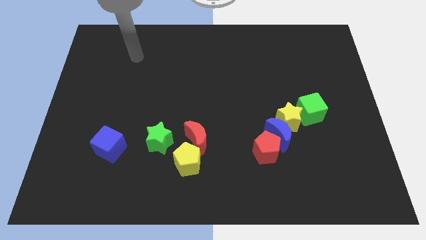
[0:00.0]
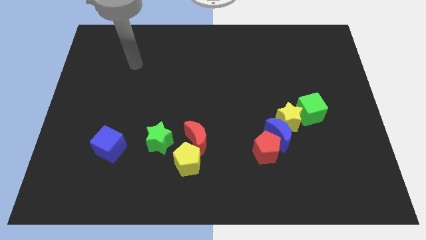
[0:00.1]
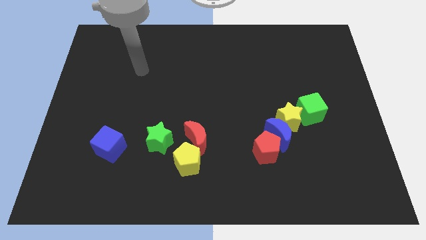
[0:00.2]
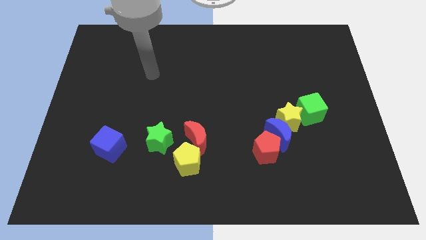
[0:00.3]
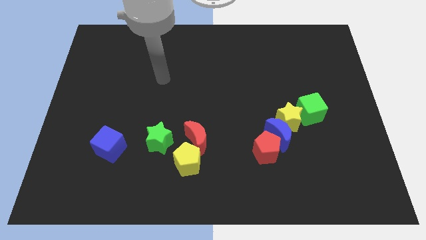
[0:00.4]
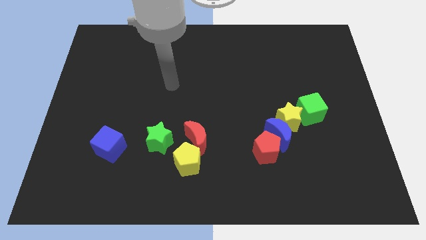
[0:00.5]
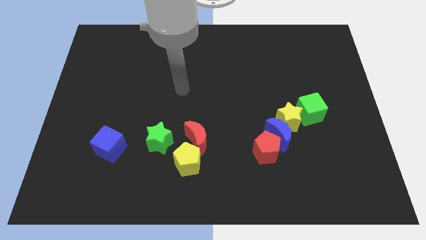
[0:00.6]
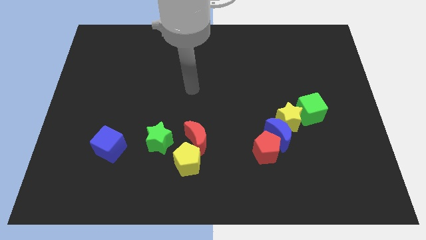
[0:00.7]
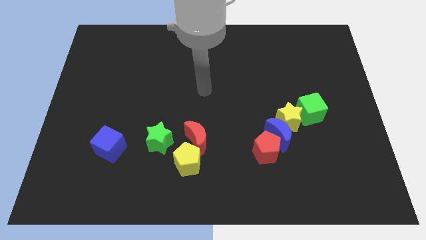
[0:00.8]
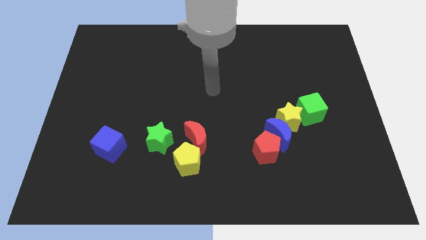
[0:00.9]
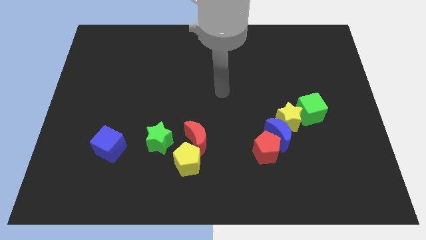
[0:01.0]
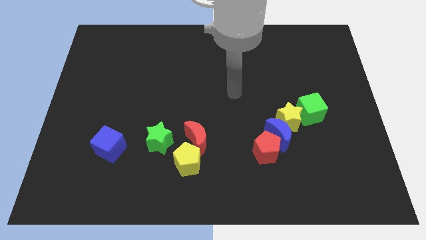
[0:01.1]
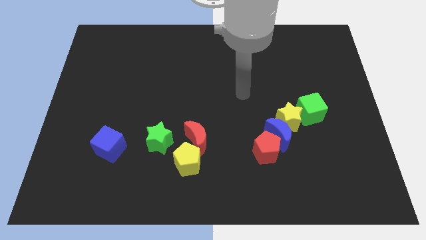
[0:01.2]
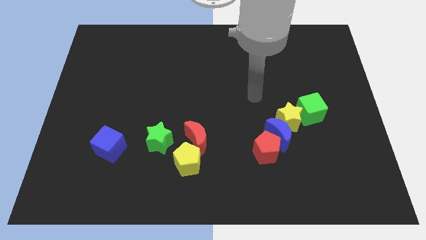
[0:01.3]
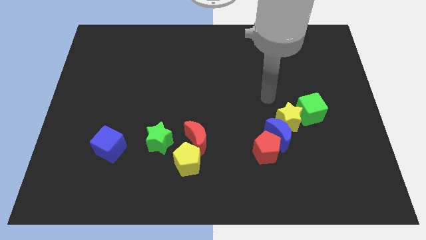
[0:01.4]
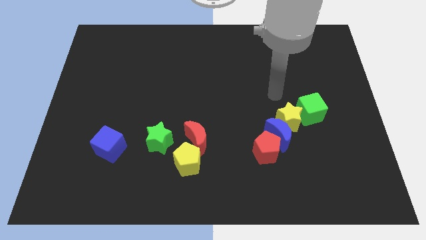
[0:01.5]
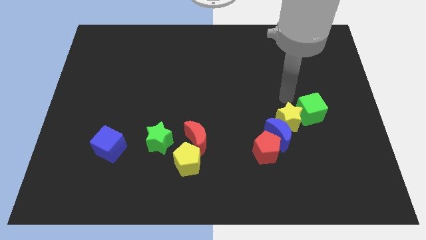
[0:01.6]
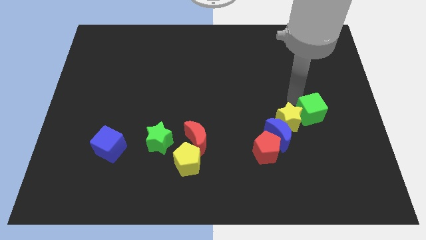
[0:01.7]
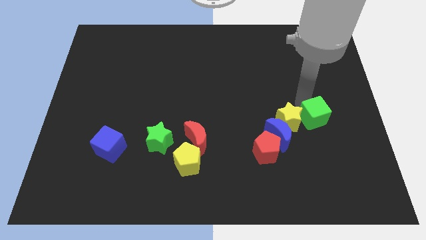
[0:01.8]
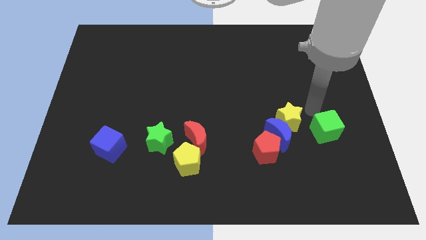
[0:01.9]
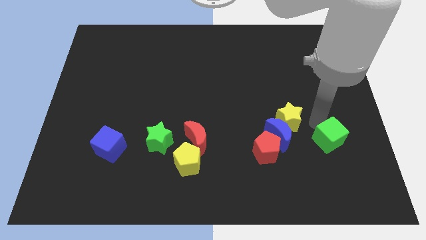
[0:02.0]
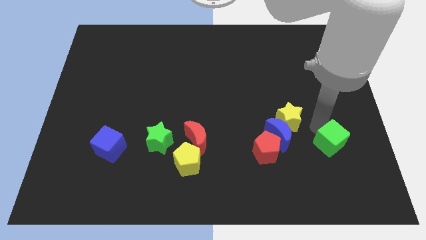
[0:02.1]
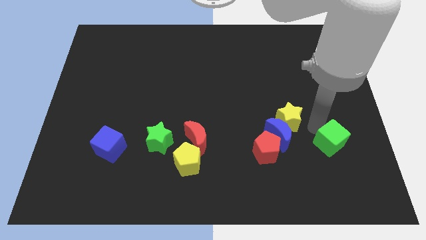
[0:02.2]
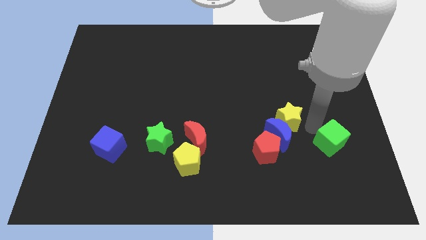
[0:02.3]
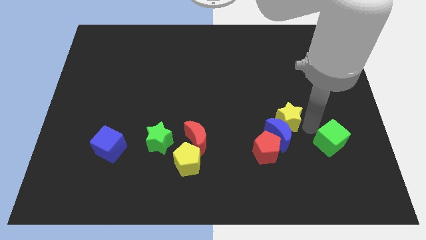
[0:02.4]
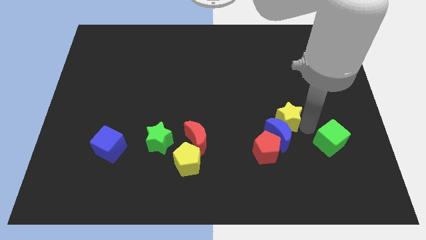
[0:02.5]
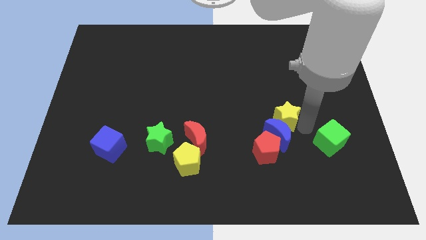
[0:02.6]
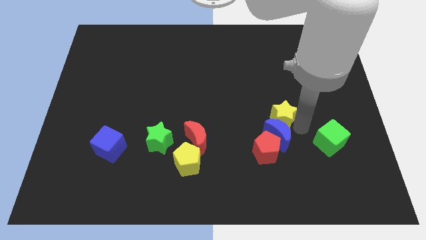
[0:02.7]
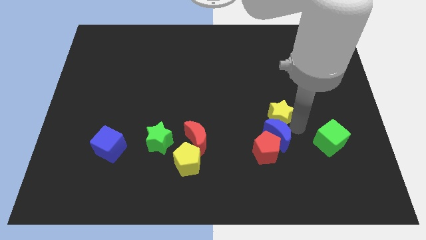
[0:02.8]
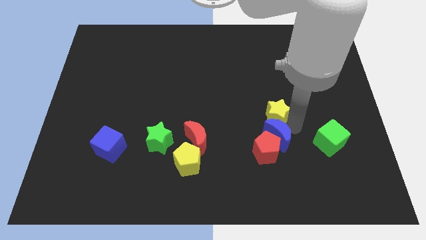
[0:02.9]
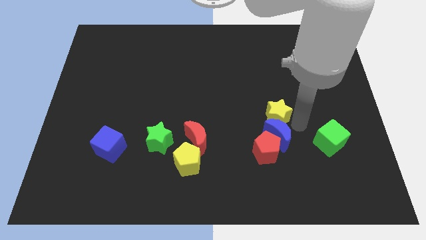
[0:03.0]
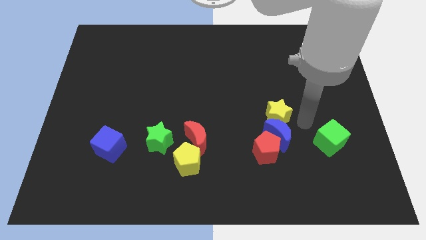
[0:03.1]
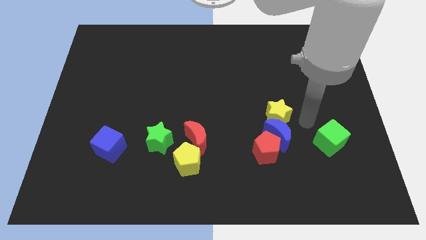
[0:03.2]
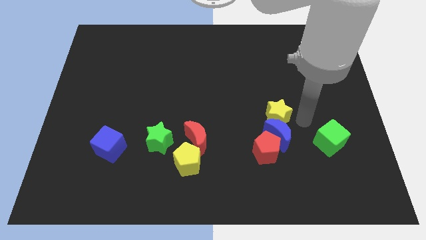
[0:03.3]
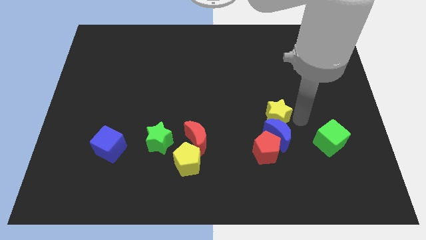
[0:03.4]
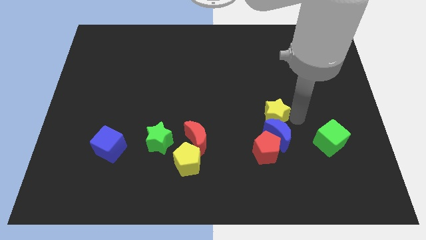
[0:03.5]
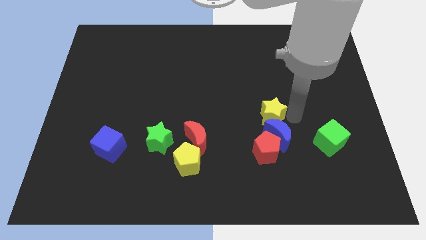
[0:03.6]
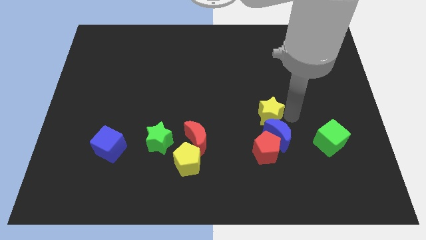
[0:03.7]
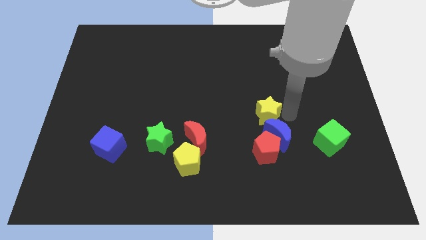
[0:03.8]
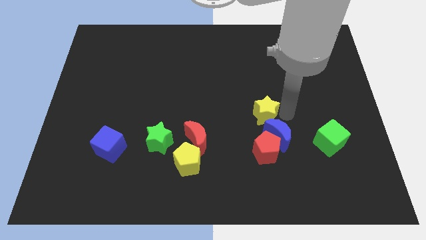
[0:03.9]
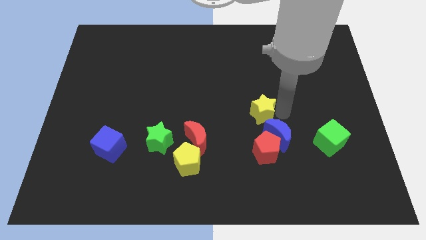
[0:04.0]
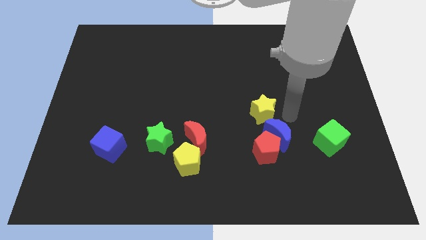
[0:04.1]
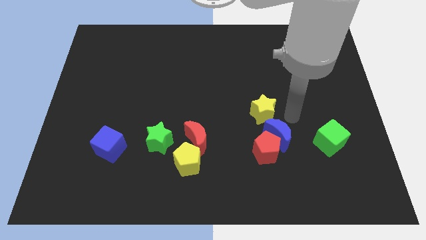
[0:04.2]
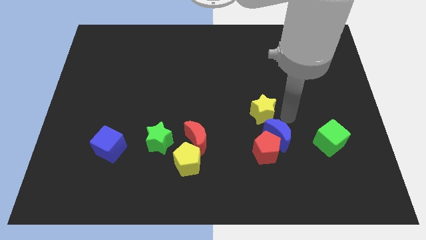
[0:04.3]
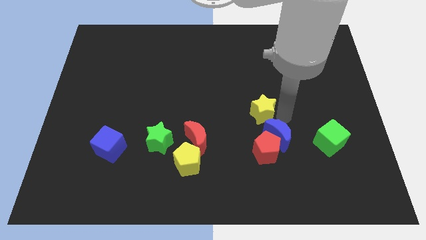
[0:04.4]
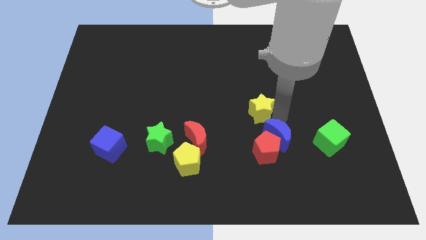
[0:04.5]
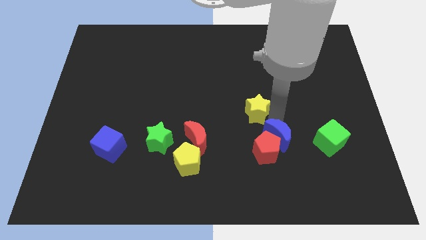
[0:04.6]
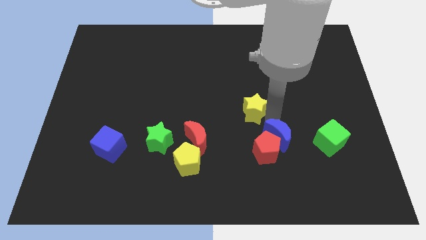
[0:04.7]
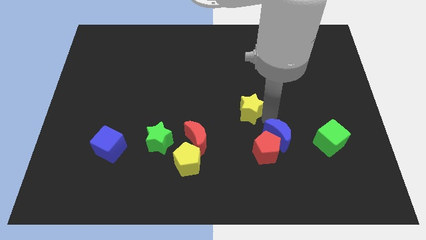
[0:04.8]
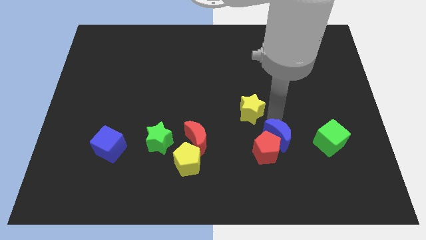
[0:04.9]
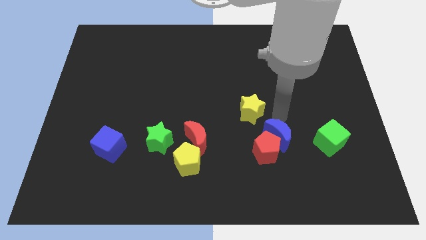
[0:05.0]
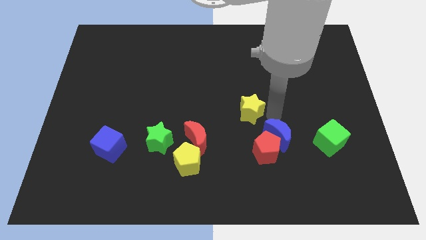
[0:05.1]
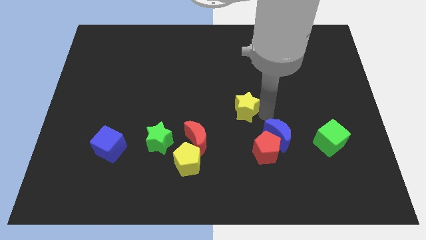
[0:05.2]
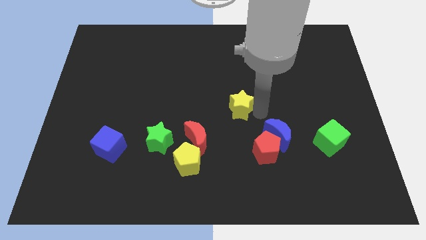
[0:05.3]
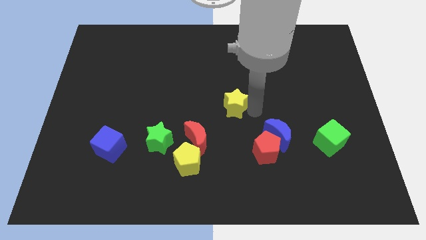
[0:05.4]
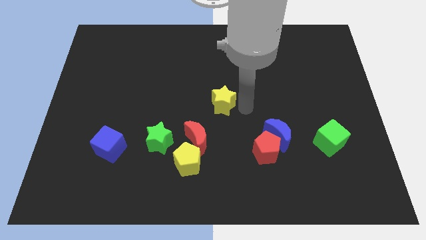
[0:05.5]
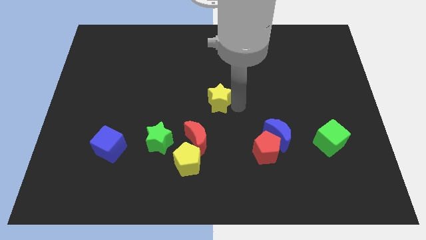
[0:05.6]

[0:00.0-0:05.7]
slide the yellow star to the top side of the red moon

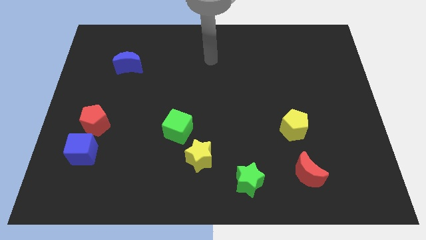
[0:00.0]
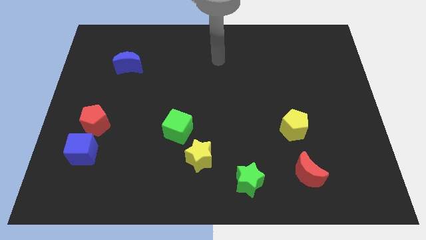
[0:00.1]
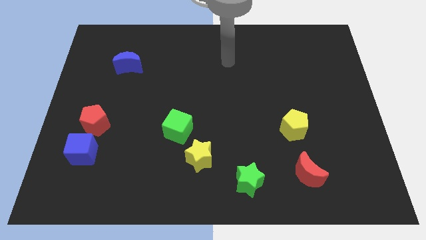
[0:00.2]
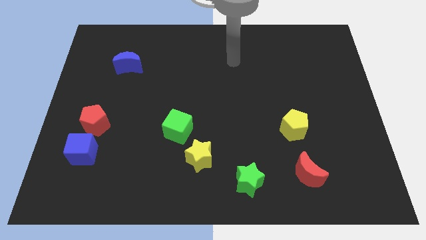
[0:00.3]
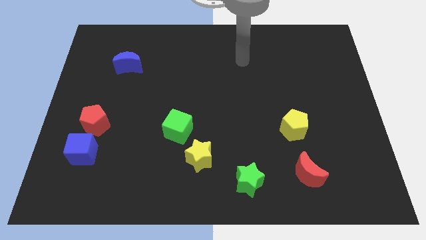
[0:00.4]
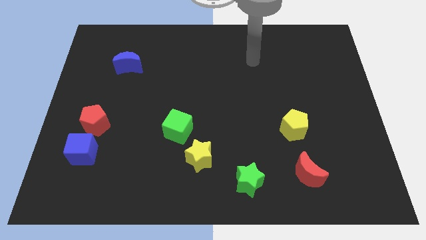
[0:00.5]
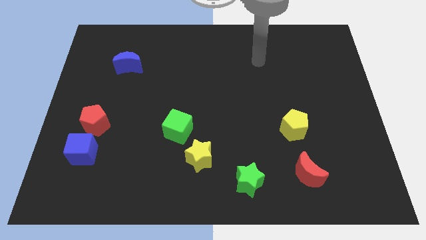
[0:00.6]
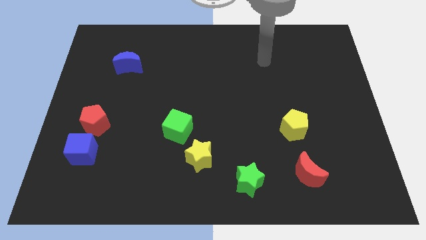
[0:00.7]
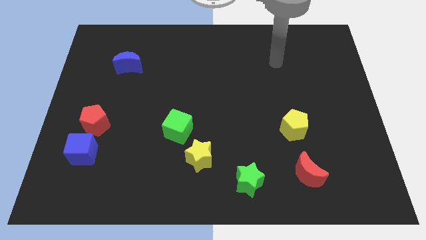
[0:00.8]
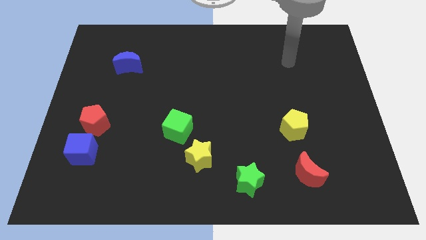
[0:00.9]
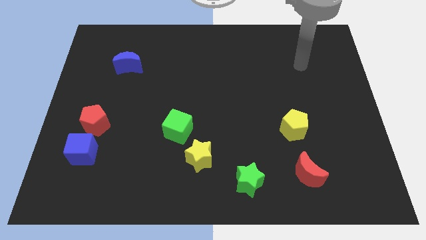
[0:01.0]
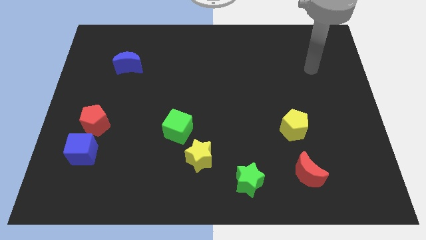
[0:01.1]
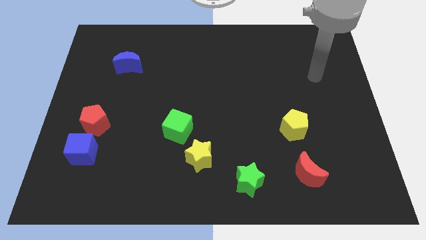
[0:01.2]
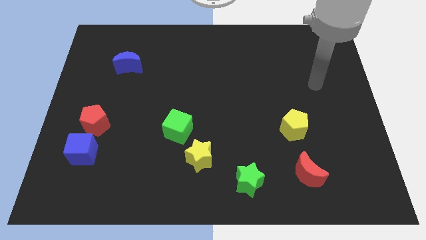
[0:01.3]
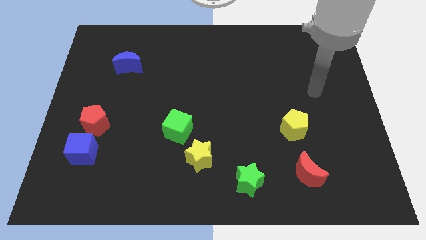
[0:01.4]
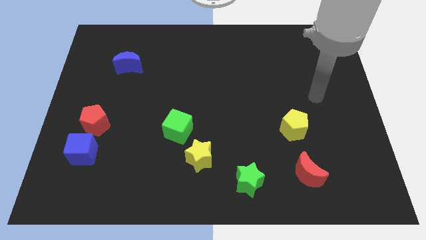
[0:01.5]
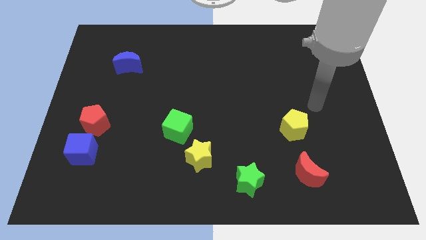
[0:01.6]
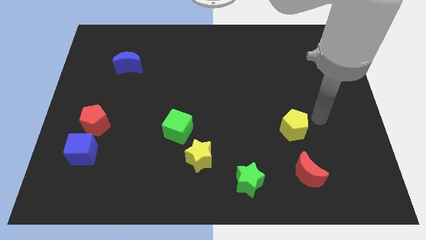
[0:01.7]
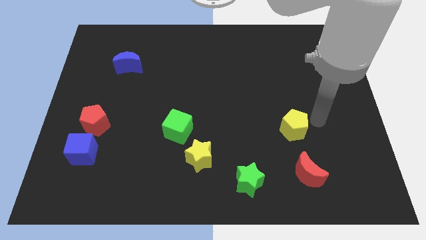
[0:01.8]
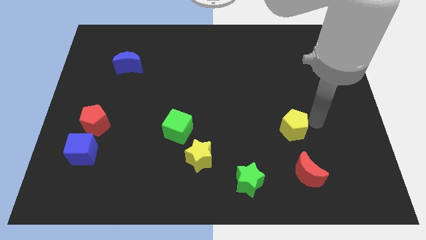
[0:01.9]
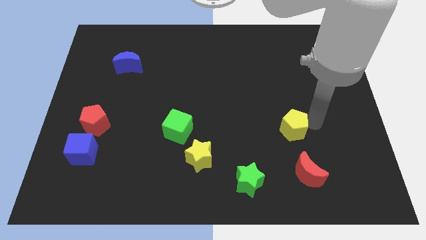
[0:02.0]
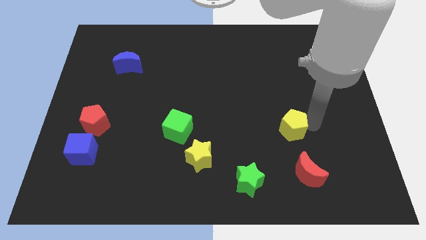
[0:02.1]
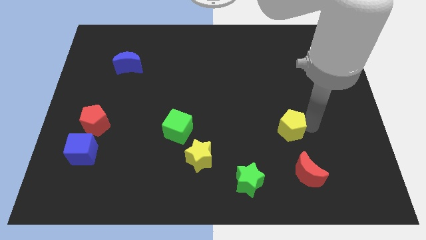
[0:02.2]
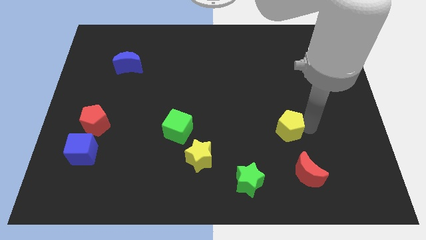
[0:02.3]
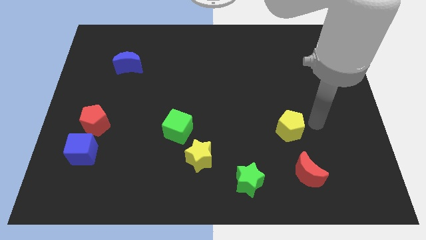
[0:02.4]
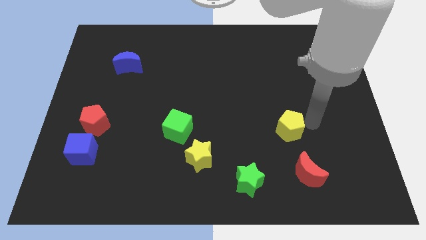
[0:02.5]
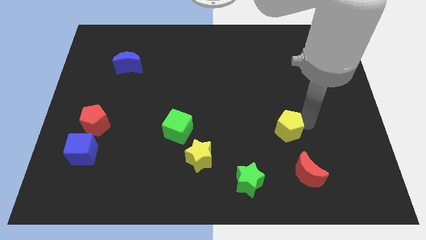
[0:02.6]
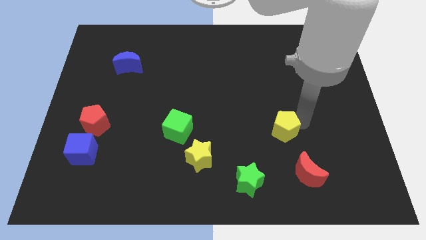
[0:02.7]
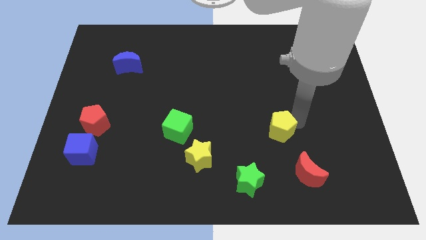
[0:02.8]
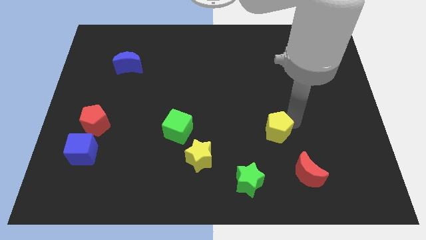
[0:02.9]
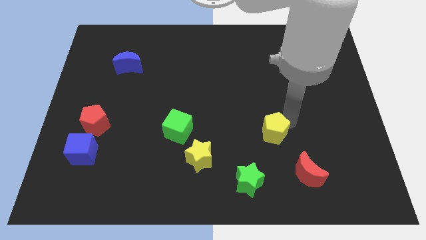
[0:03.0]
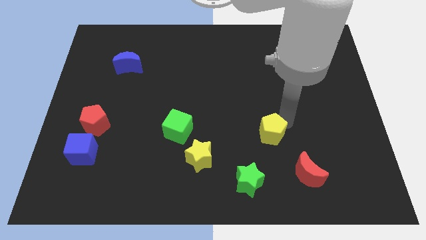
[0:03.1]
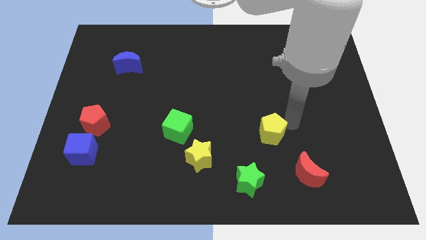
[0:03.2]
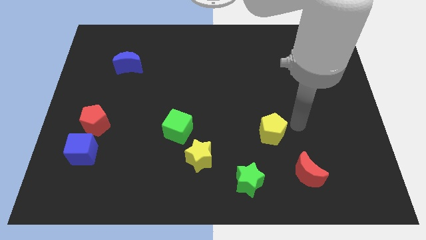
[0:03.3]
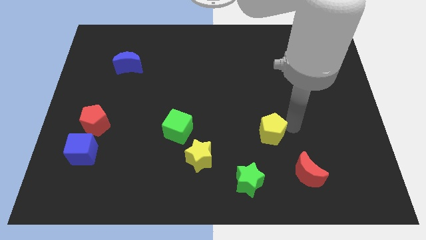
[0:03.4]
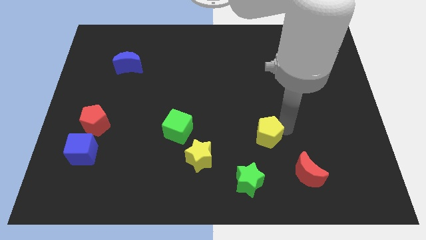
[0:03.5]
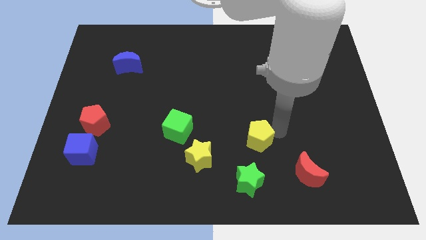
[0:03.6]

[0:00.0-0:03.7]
slide the yellow pentagon to the top side of the green star
